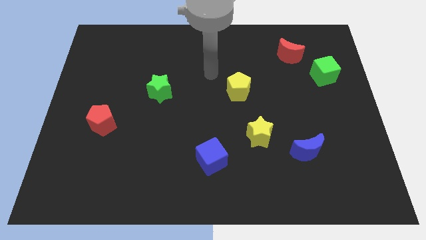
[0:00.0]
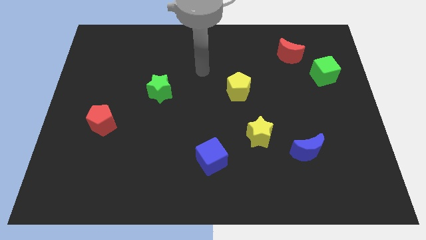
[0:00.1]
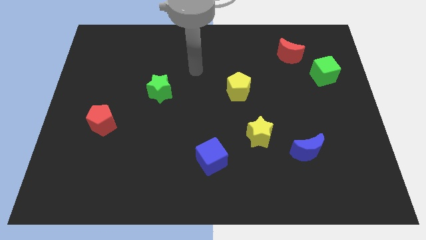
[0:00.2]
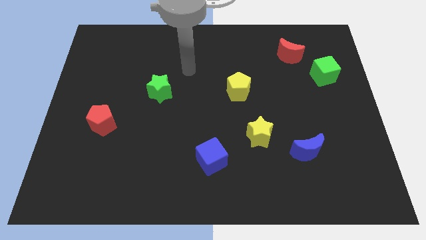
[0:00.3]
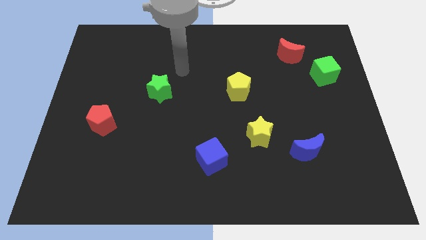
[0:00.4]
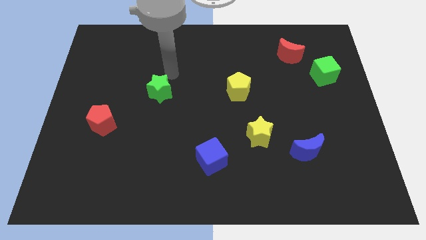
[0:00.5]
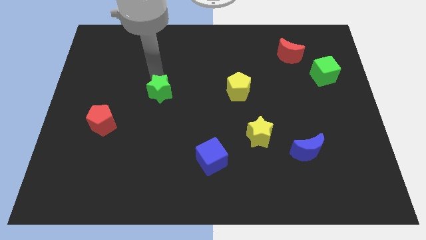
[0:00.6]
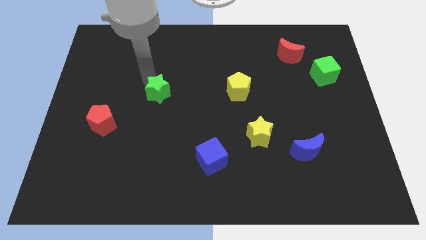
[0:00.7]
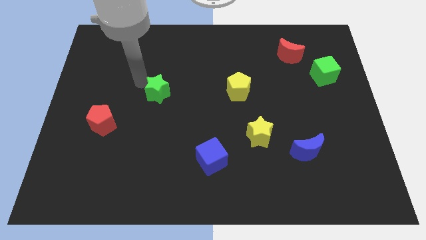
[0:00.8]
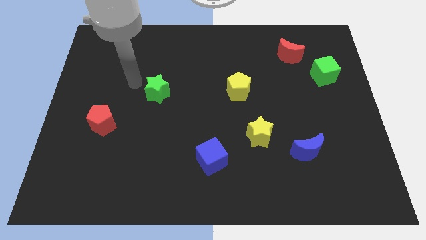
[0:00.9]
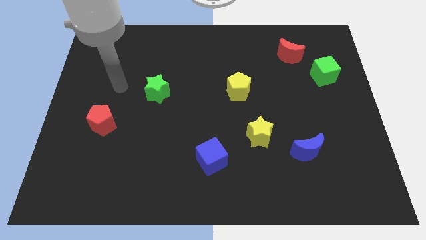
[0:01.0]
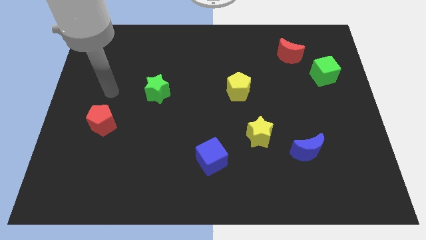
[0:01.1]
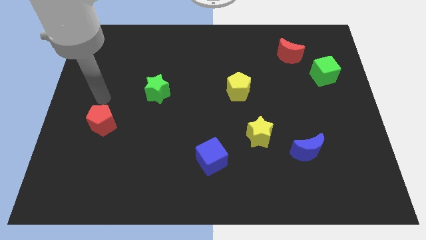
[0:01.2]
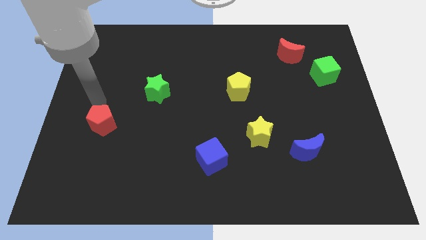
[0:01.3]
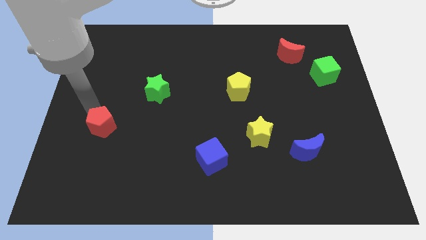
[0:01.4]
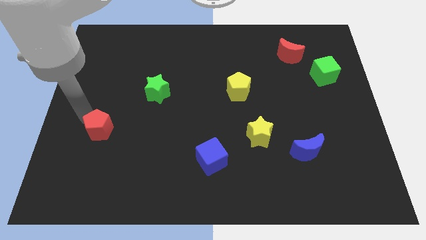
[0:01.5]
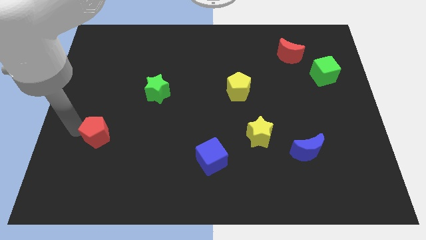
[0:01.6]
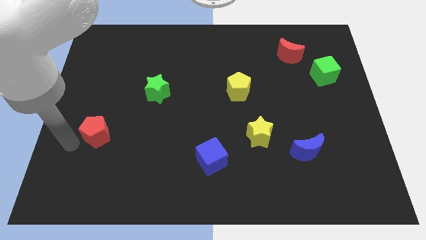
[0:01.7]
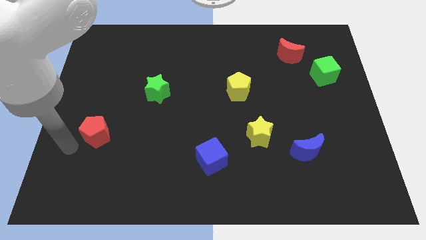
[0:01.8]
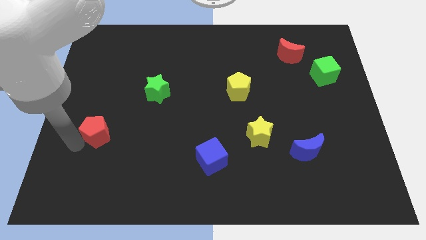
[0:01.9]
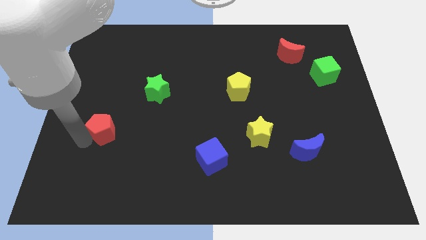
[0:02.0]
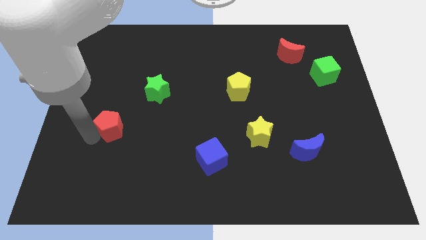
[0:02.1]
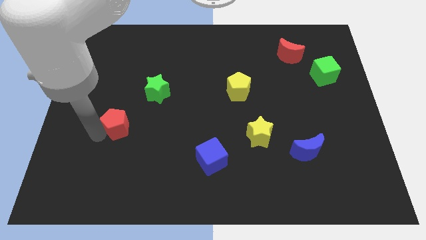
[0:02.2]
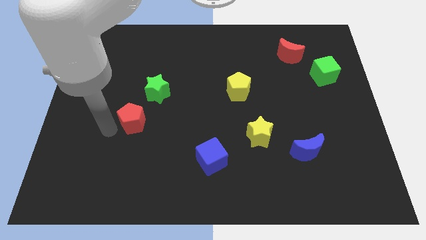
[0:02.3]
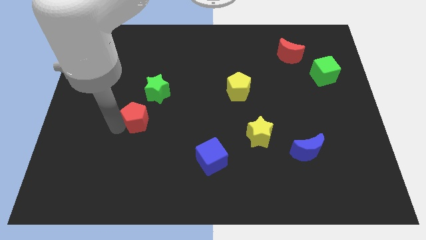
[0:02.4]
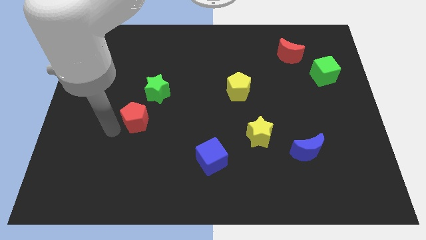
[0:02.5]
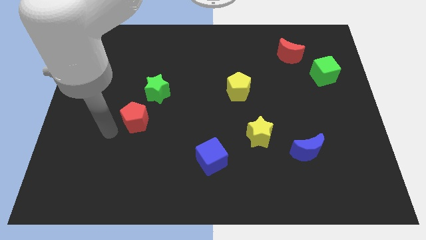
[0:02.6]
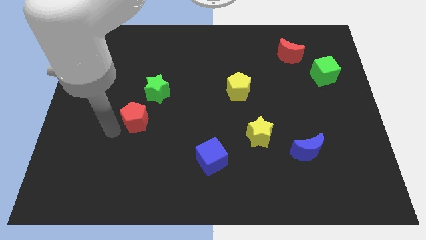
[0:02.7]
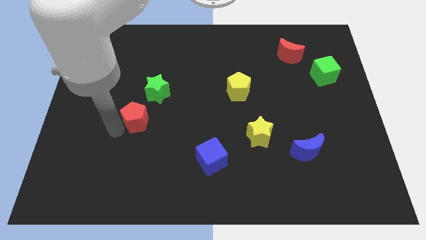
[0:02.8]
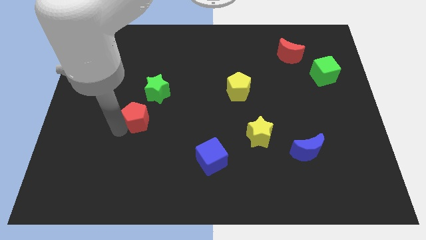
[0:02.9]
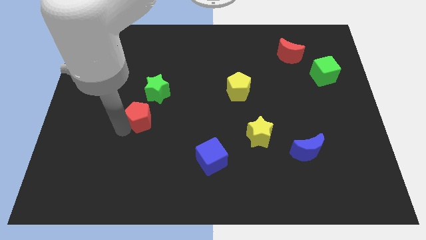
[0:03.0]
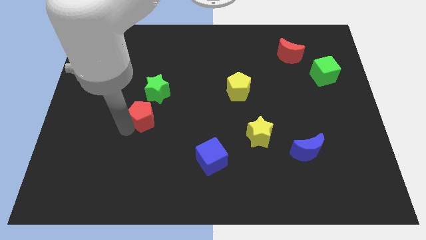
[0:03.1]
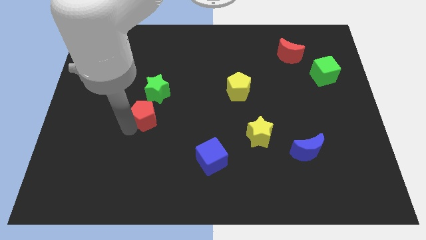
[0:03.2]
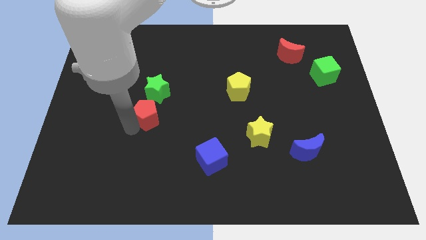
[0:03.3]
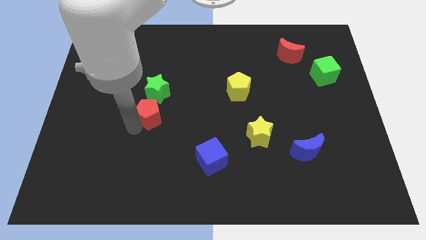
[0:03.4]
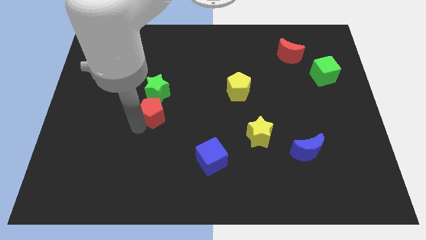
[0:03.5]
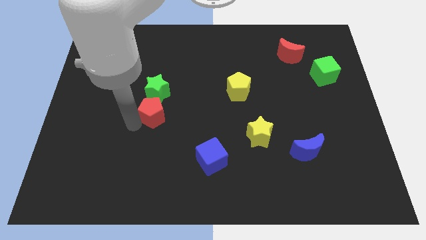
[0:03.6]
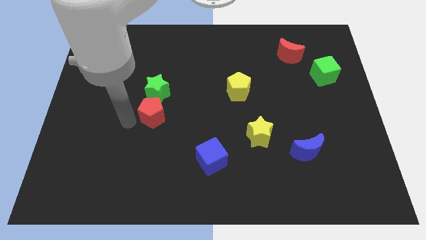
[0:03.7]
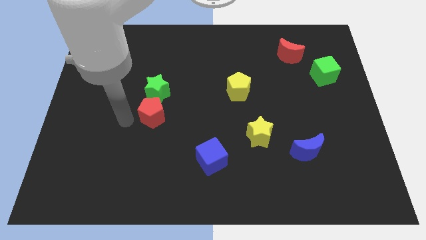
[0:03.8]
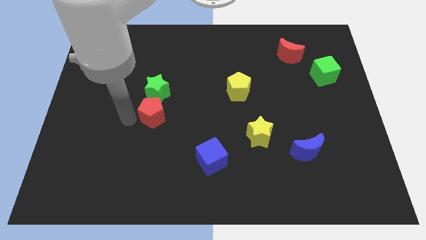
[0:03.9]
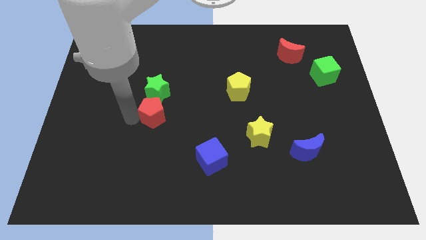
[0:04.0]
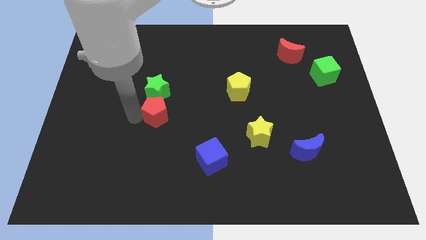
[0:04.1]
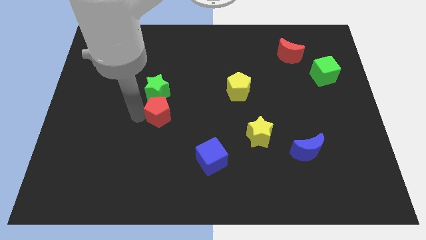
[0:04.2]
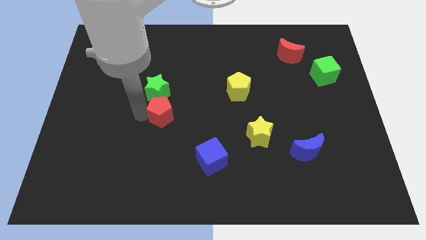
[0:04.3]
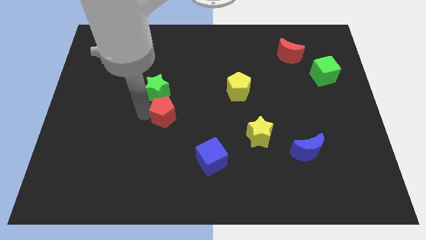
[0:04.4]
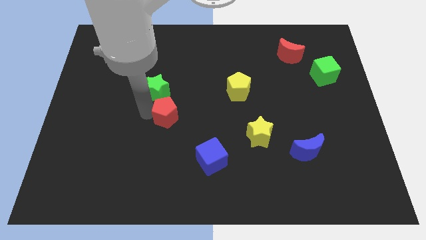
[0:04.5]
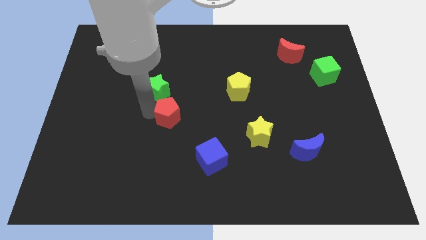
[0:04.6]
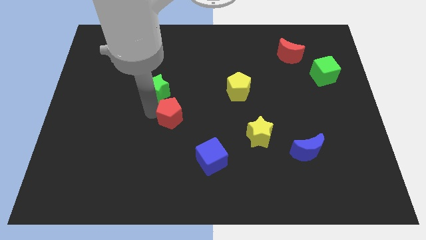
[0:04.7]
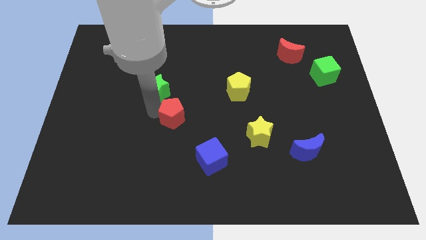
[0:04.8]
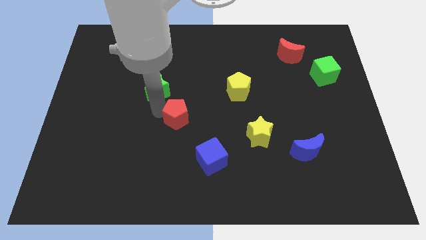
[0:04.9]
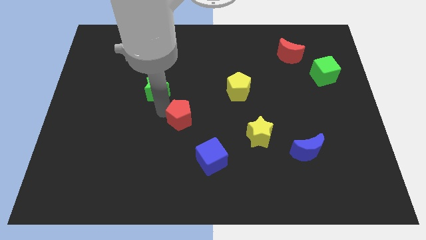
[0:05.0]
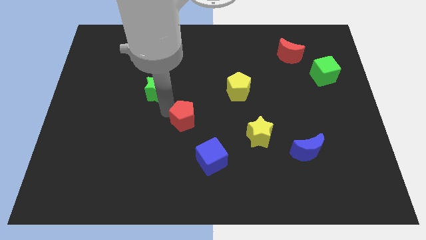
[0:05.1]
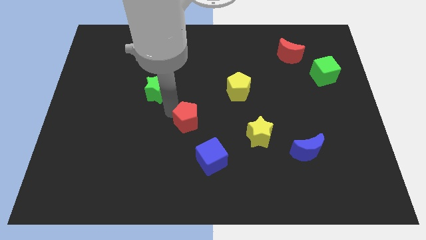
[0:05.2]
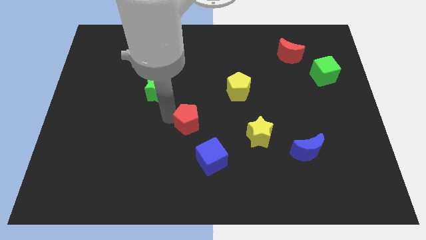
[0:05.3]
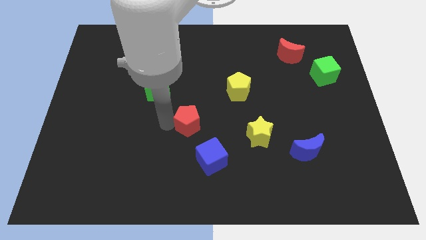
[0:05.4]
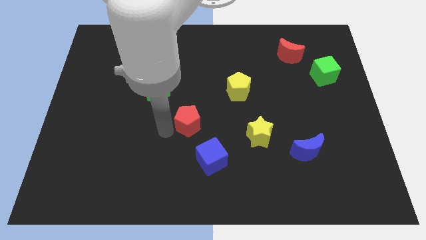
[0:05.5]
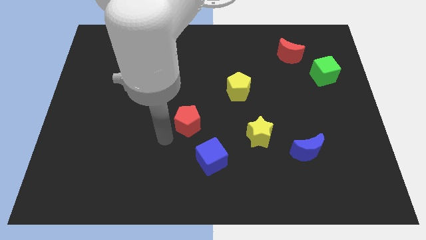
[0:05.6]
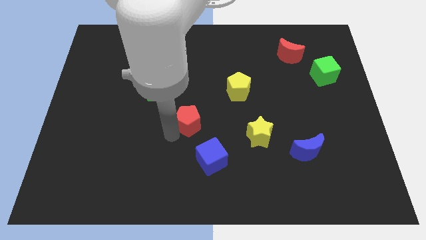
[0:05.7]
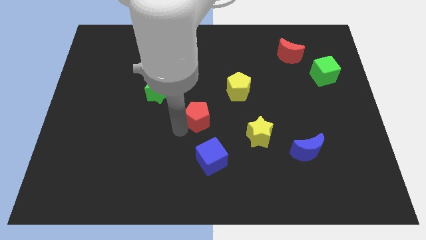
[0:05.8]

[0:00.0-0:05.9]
slide the red pentagon to the bottom left of the yellow pentagon
